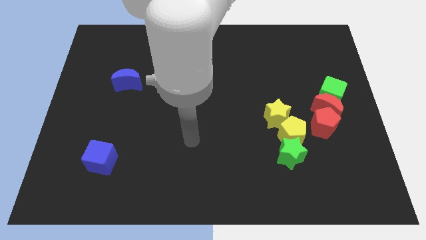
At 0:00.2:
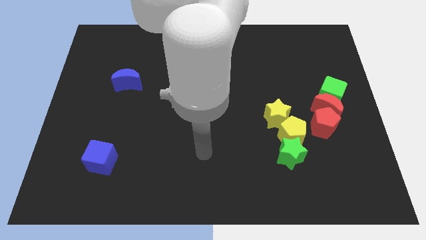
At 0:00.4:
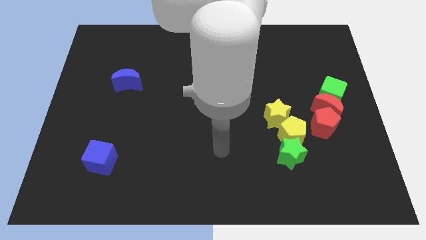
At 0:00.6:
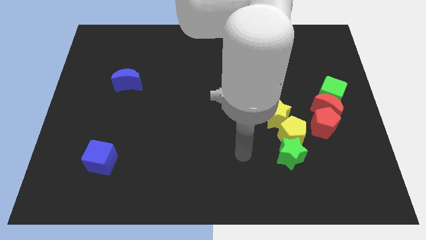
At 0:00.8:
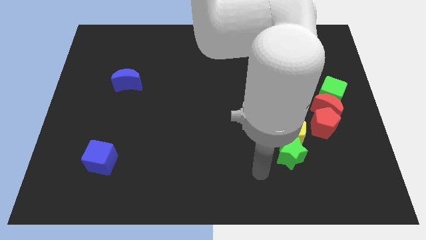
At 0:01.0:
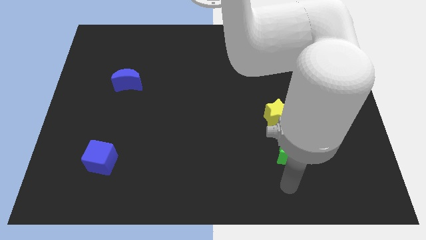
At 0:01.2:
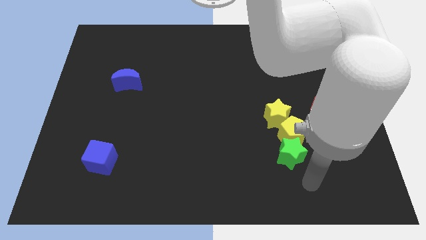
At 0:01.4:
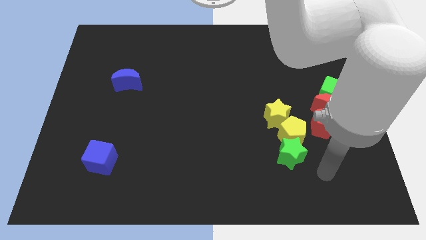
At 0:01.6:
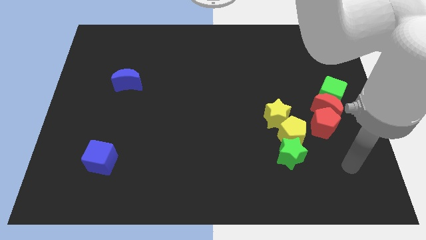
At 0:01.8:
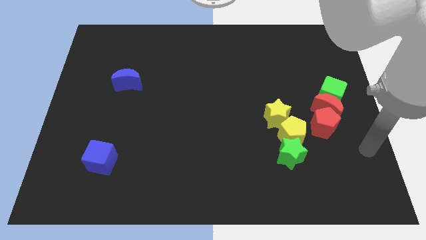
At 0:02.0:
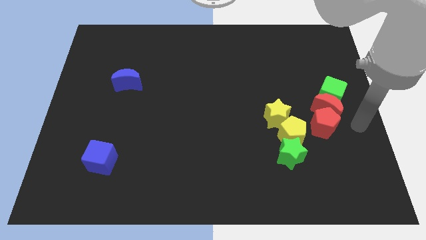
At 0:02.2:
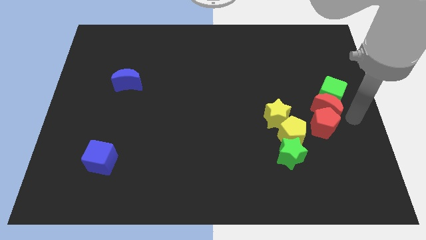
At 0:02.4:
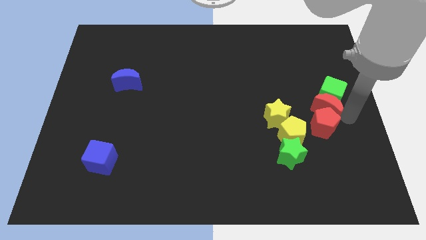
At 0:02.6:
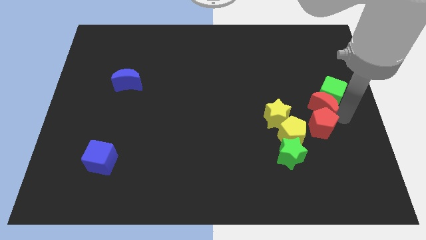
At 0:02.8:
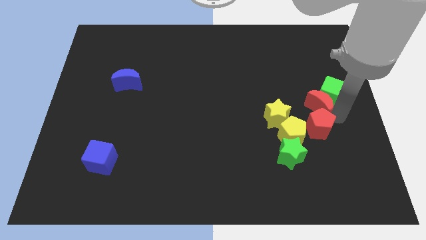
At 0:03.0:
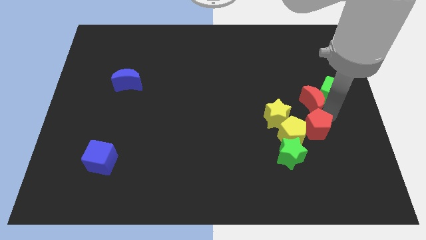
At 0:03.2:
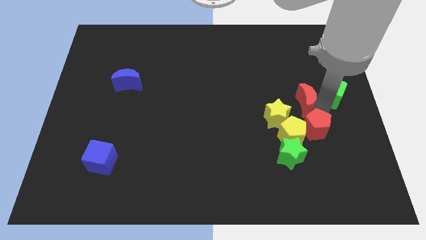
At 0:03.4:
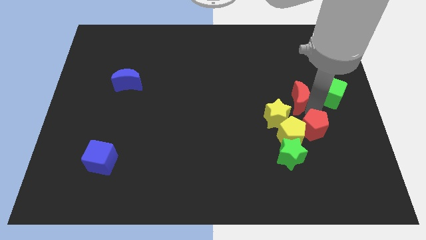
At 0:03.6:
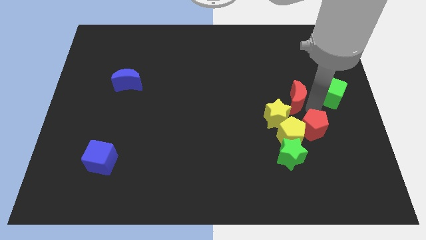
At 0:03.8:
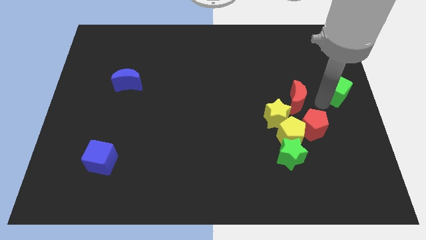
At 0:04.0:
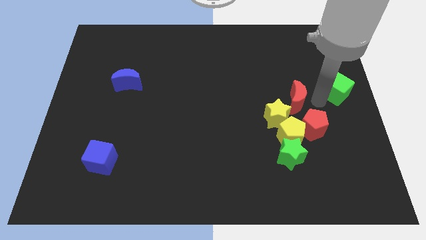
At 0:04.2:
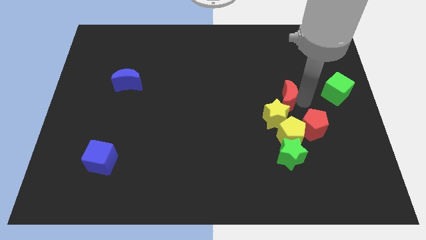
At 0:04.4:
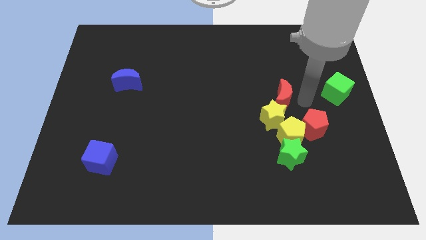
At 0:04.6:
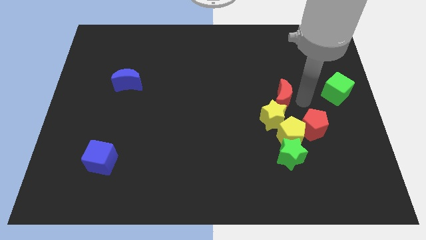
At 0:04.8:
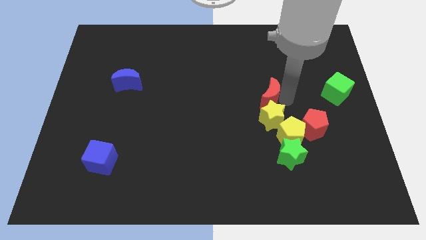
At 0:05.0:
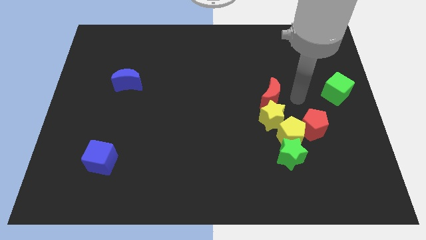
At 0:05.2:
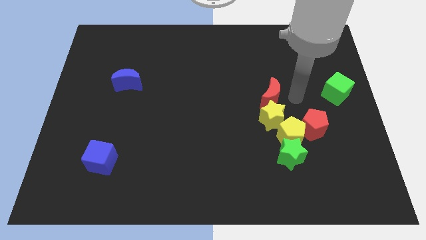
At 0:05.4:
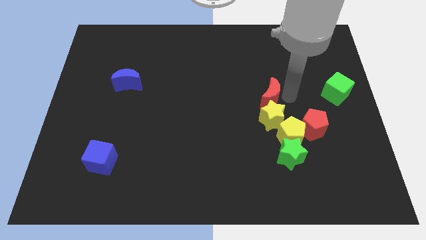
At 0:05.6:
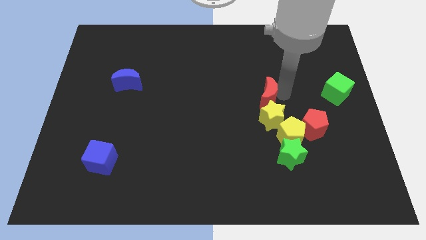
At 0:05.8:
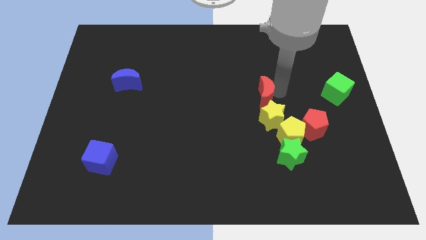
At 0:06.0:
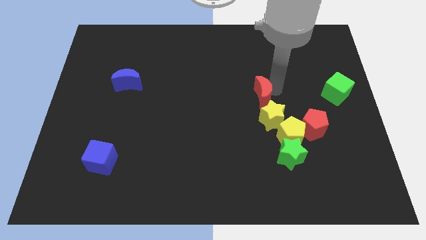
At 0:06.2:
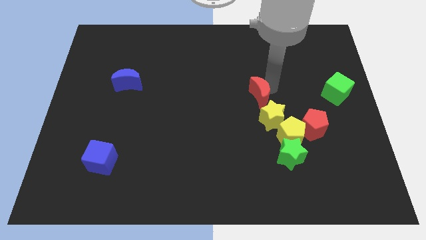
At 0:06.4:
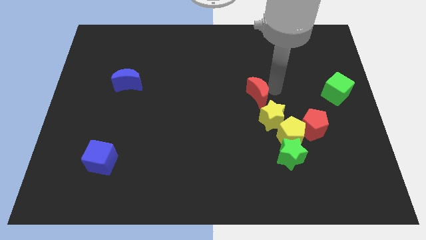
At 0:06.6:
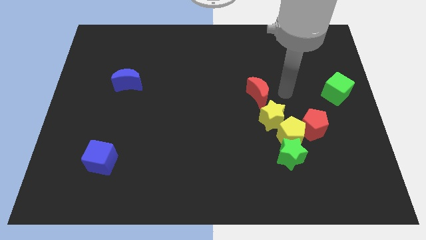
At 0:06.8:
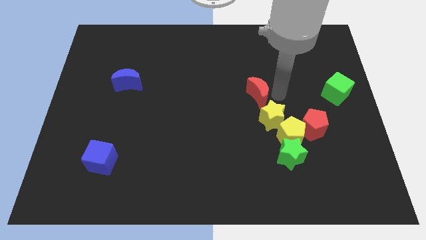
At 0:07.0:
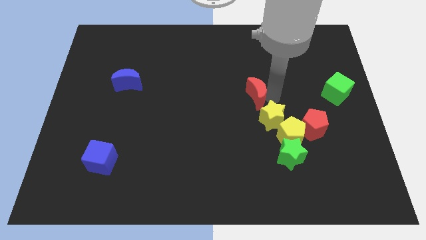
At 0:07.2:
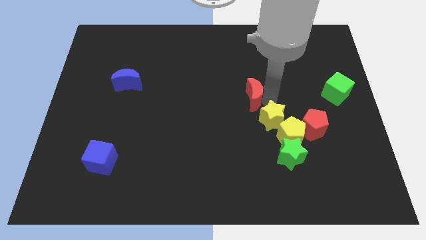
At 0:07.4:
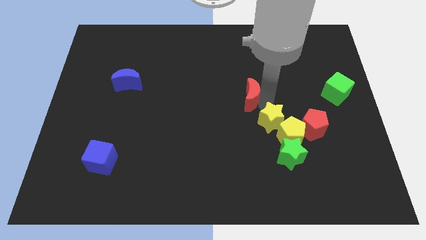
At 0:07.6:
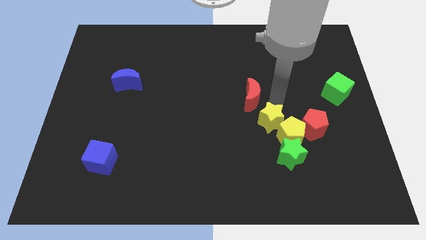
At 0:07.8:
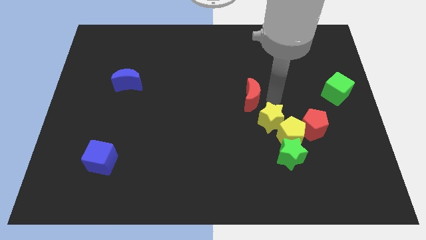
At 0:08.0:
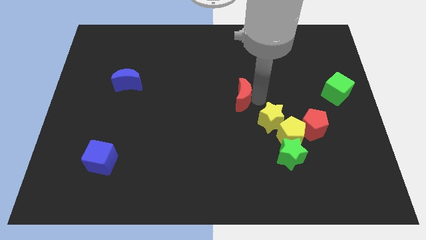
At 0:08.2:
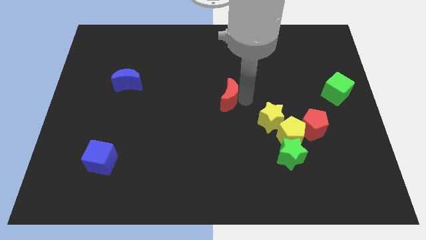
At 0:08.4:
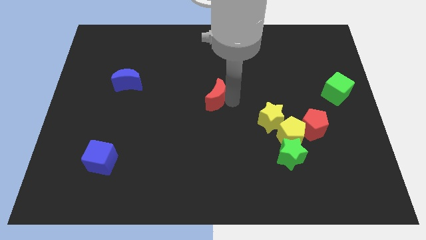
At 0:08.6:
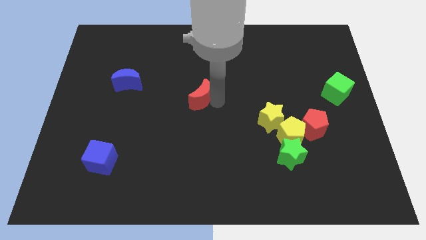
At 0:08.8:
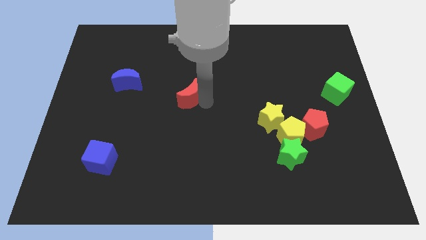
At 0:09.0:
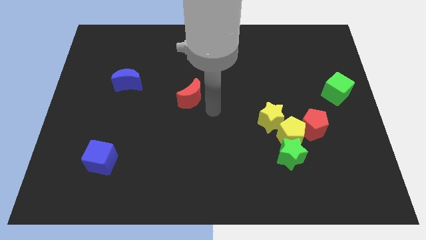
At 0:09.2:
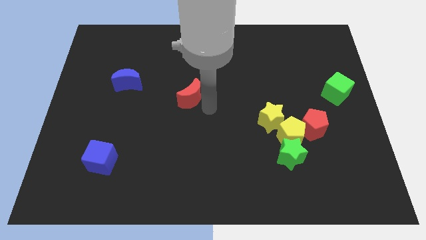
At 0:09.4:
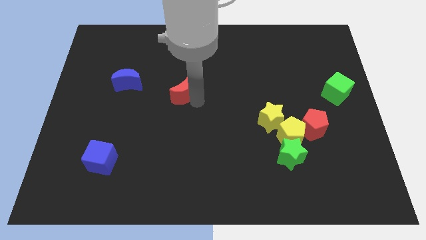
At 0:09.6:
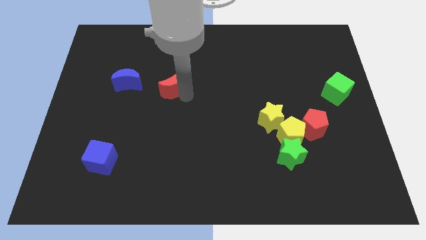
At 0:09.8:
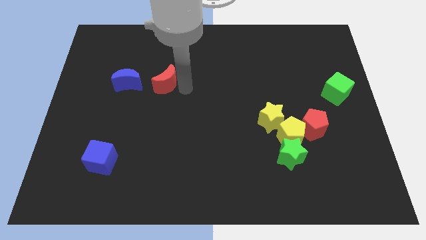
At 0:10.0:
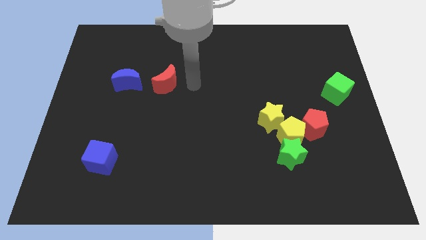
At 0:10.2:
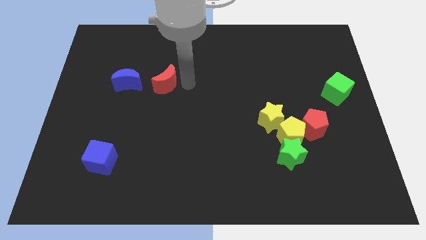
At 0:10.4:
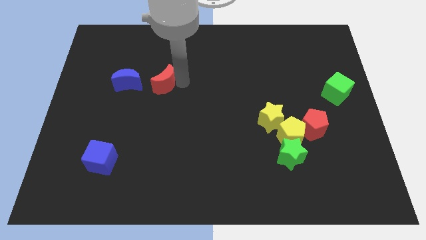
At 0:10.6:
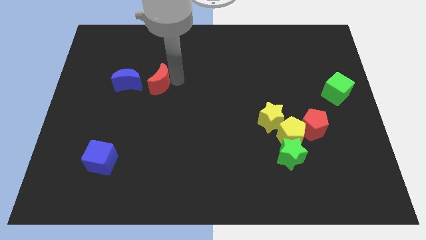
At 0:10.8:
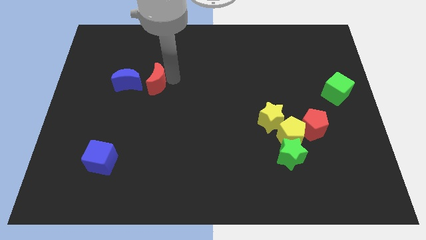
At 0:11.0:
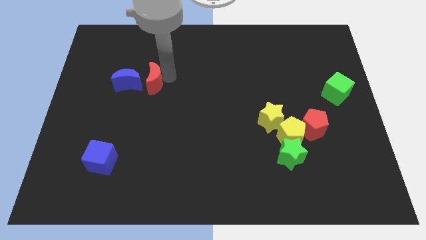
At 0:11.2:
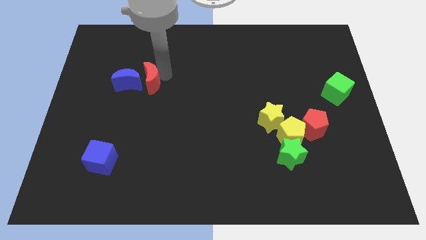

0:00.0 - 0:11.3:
put the red moon towards the blue moon

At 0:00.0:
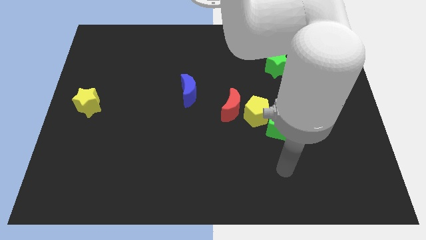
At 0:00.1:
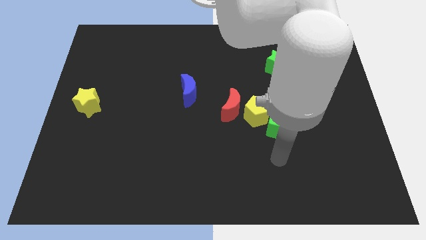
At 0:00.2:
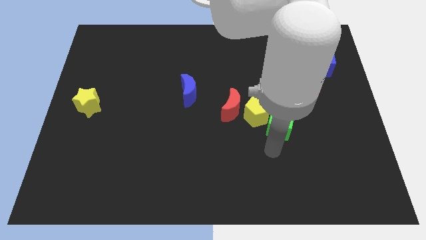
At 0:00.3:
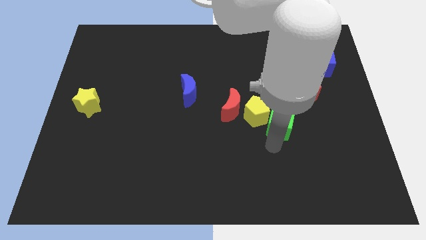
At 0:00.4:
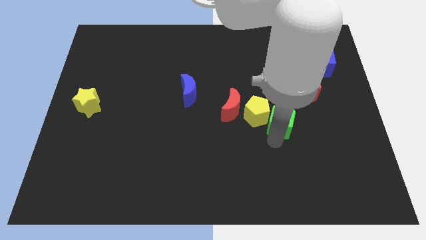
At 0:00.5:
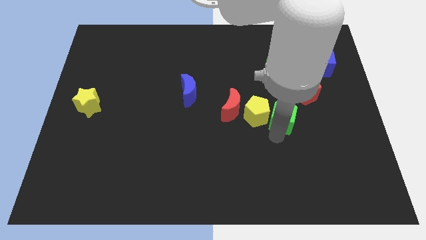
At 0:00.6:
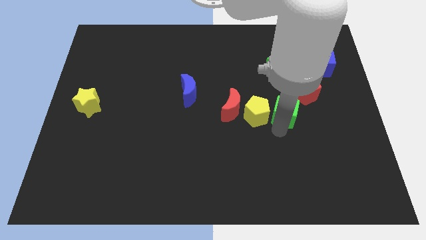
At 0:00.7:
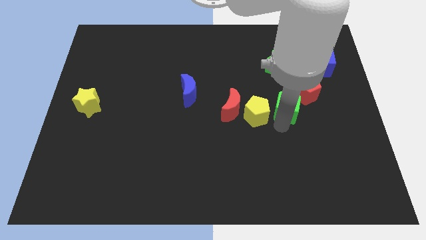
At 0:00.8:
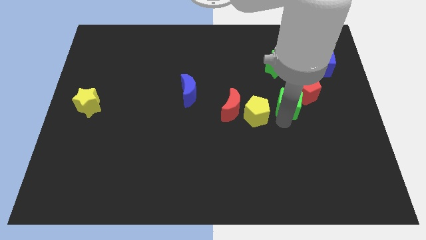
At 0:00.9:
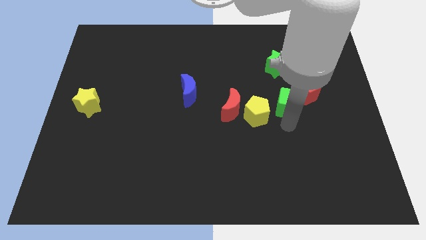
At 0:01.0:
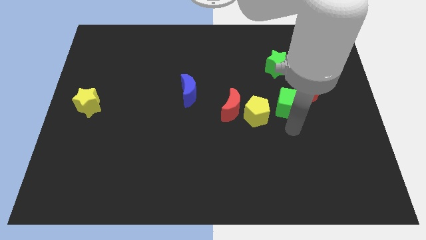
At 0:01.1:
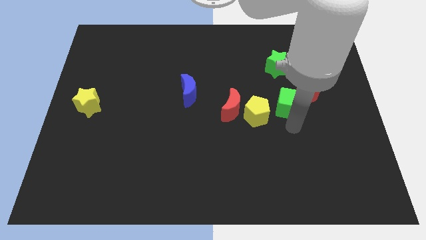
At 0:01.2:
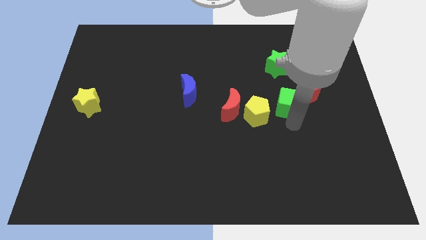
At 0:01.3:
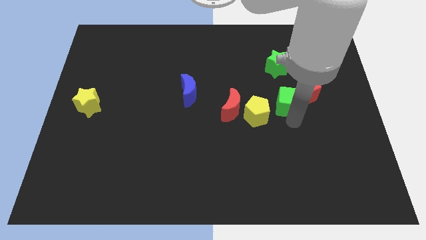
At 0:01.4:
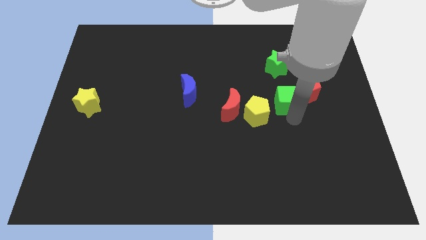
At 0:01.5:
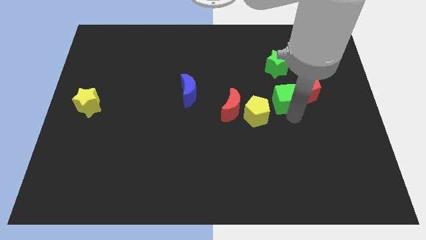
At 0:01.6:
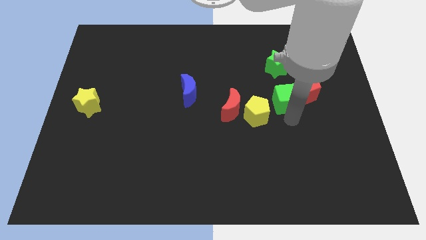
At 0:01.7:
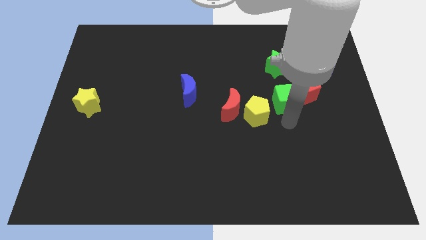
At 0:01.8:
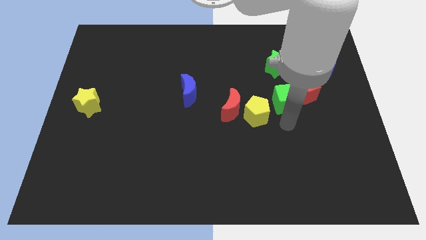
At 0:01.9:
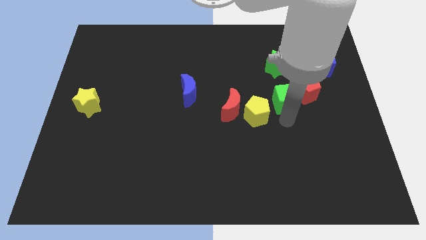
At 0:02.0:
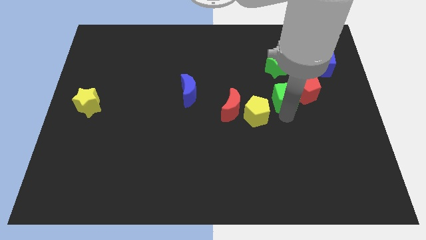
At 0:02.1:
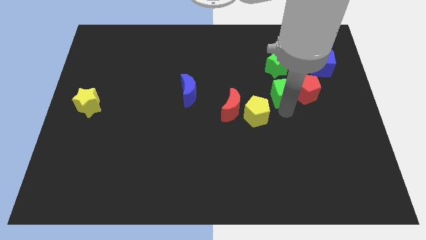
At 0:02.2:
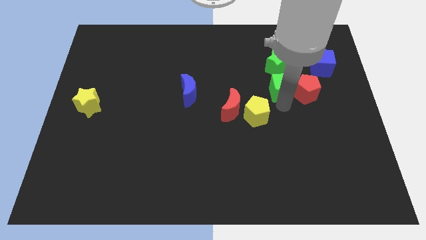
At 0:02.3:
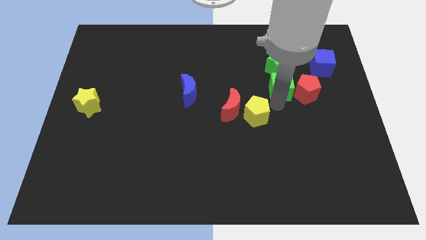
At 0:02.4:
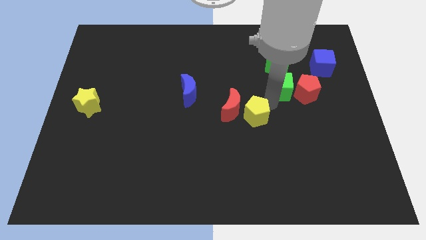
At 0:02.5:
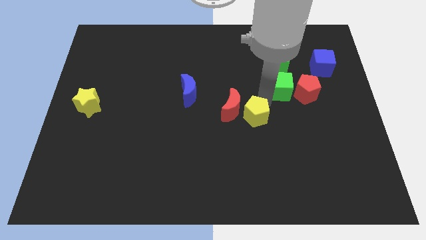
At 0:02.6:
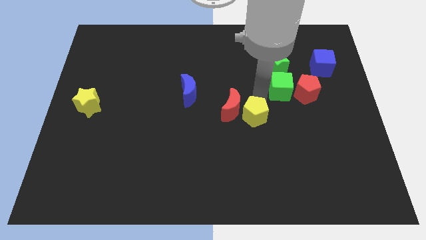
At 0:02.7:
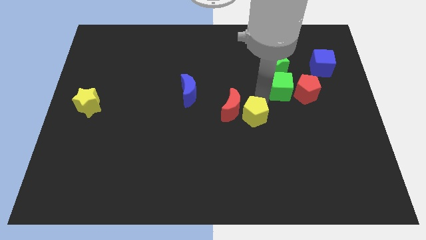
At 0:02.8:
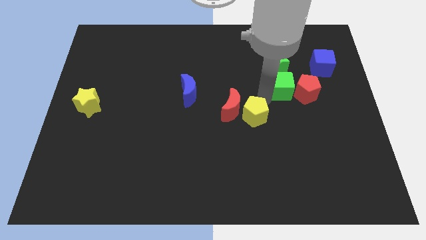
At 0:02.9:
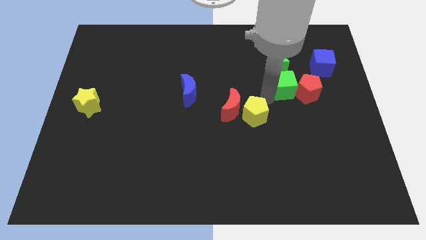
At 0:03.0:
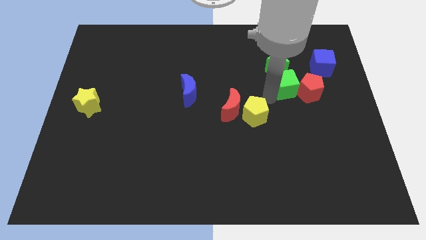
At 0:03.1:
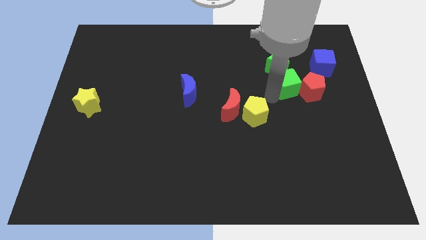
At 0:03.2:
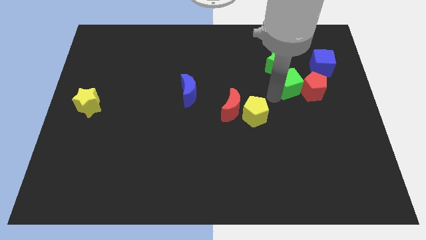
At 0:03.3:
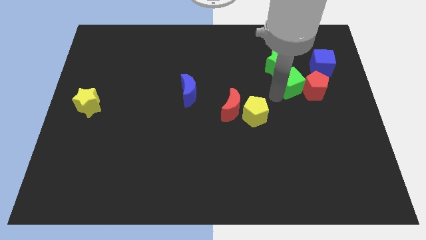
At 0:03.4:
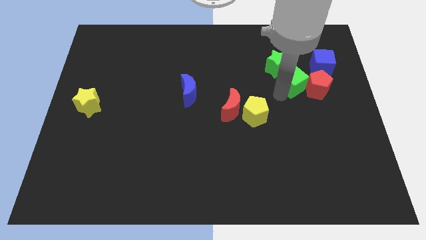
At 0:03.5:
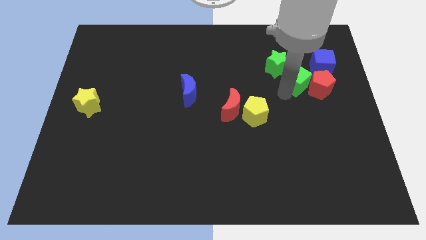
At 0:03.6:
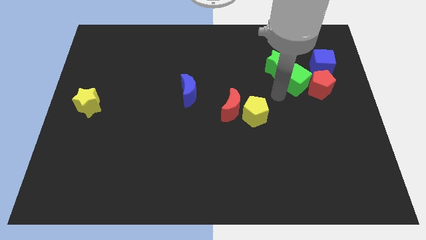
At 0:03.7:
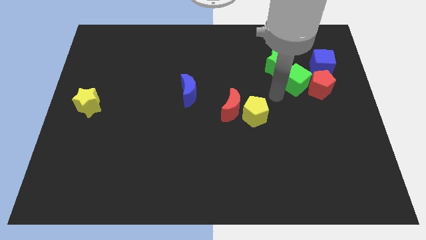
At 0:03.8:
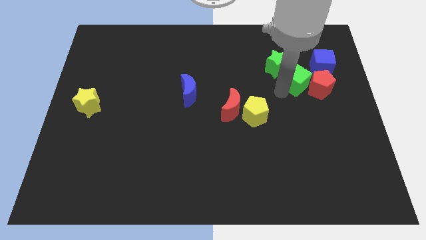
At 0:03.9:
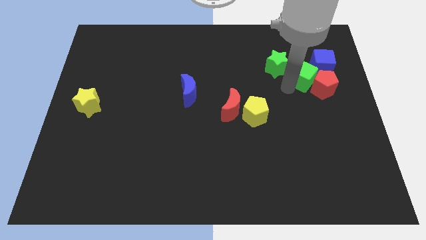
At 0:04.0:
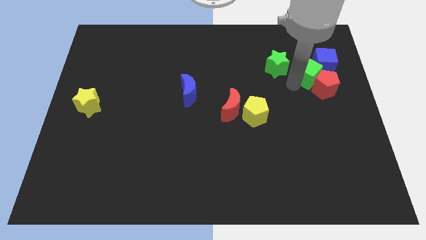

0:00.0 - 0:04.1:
push the green cube close to the blue cube
